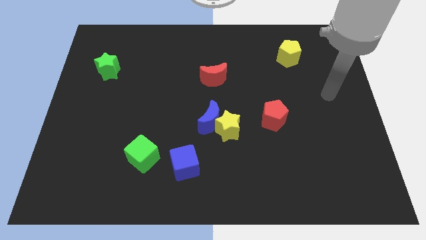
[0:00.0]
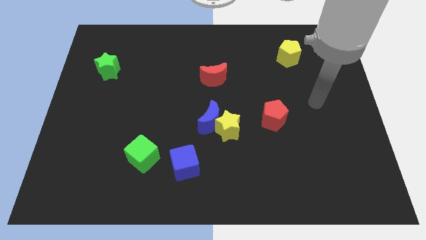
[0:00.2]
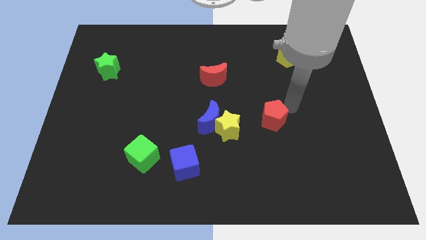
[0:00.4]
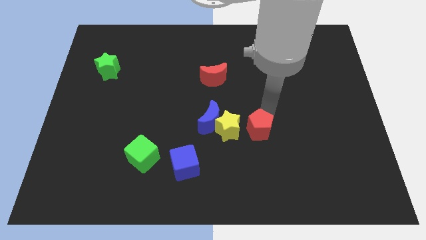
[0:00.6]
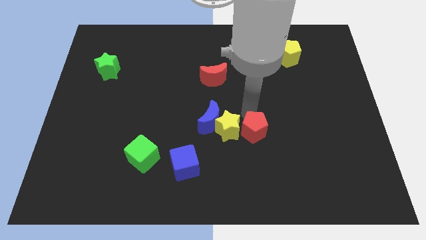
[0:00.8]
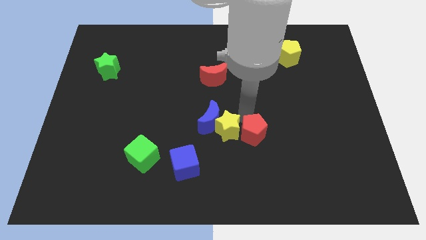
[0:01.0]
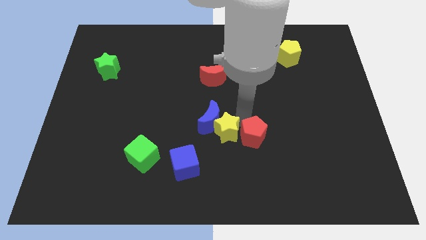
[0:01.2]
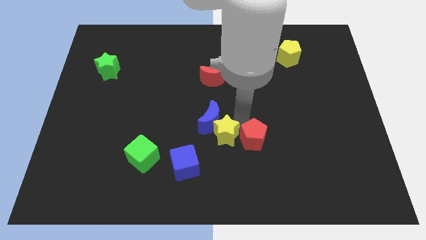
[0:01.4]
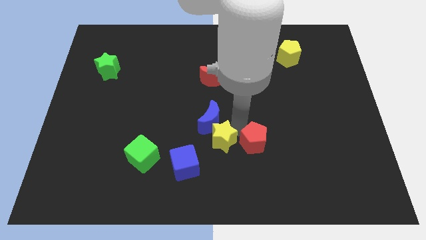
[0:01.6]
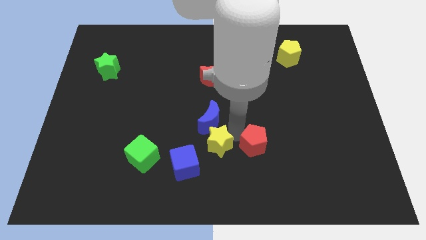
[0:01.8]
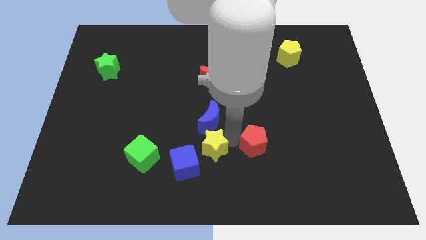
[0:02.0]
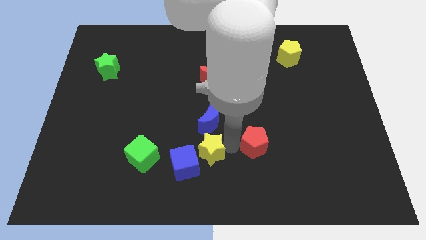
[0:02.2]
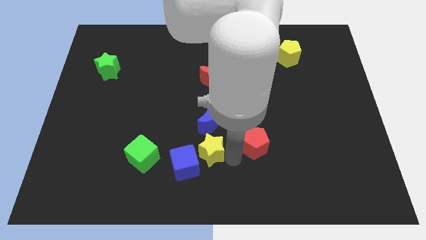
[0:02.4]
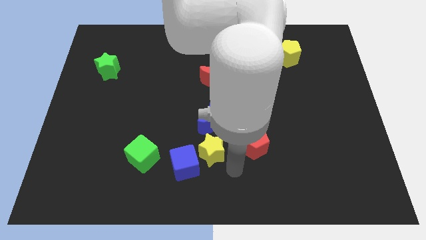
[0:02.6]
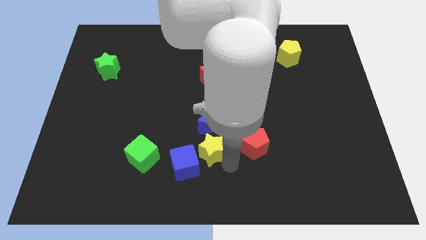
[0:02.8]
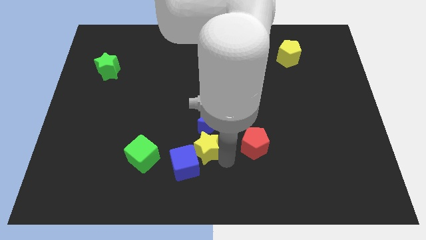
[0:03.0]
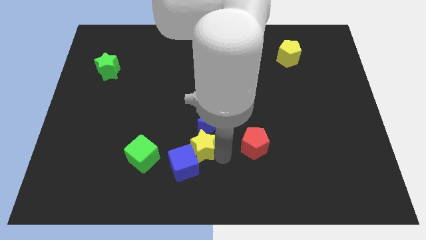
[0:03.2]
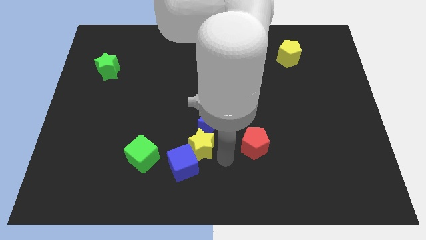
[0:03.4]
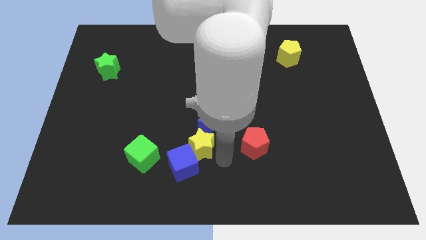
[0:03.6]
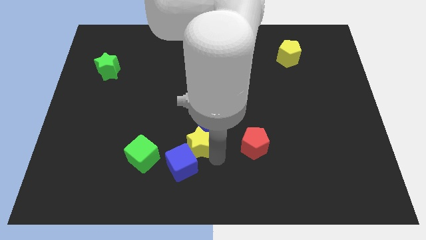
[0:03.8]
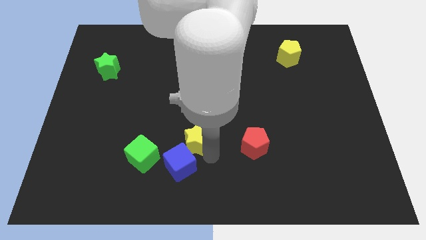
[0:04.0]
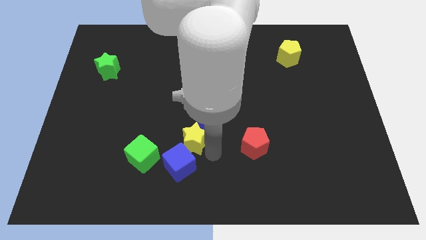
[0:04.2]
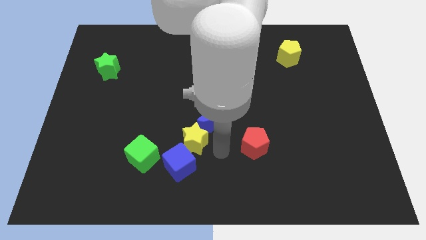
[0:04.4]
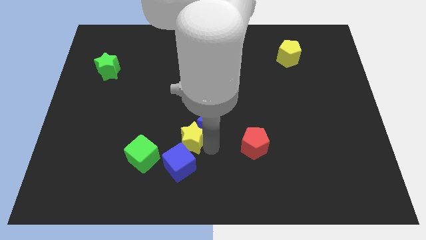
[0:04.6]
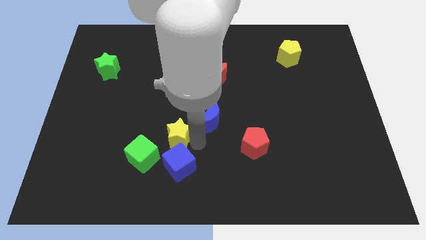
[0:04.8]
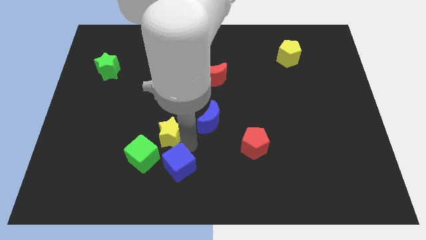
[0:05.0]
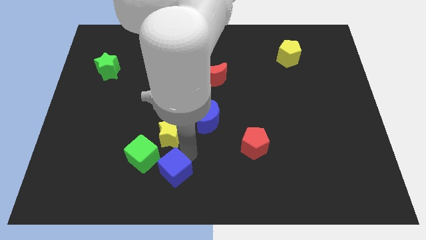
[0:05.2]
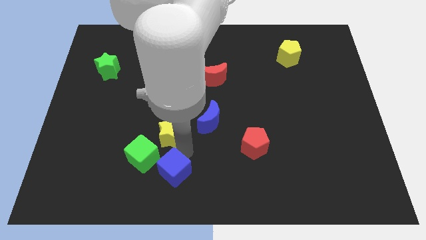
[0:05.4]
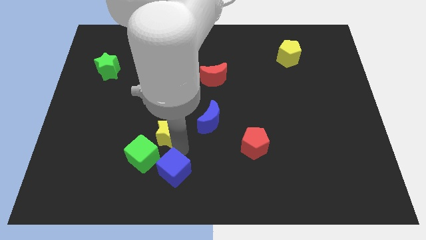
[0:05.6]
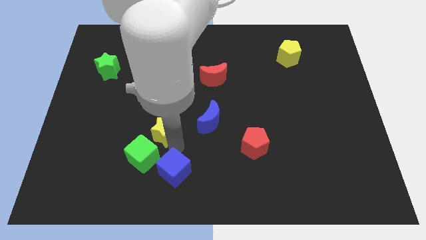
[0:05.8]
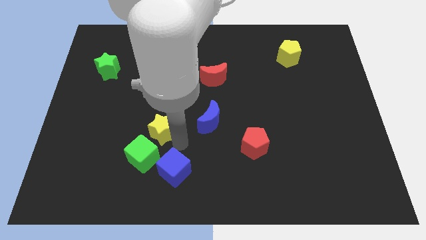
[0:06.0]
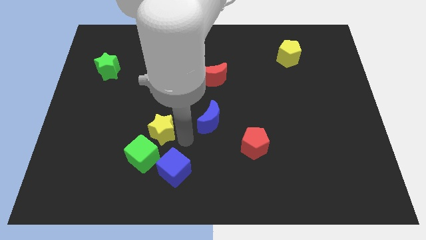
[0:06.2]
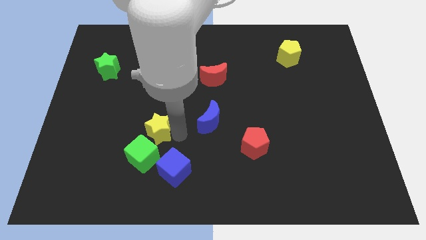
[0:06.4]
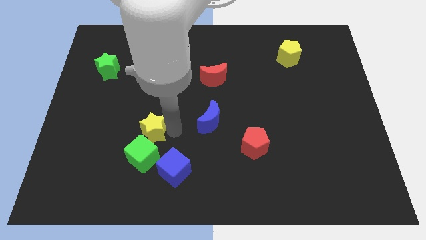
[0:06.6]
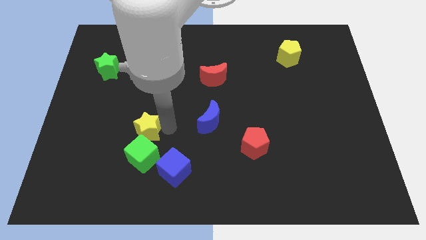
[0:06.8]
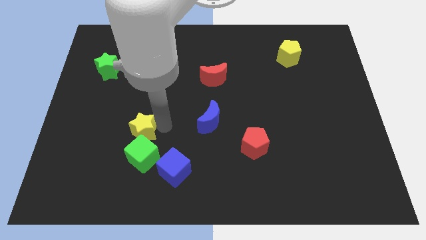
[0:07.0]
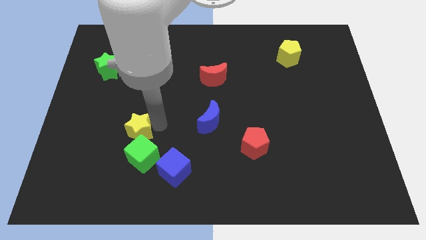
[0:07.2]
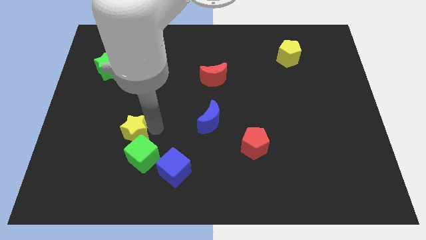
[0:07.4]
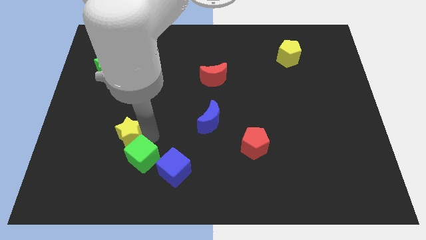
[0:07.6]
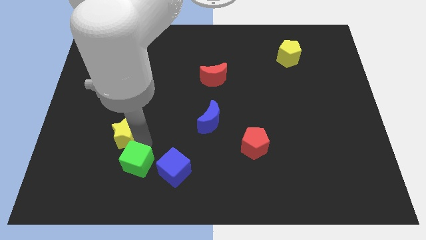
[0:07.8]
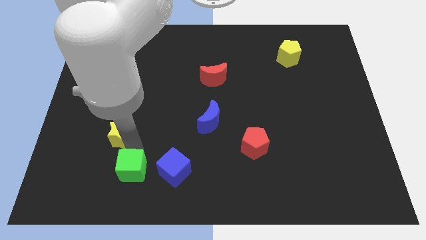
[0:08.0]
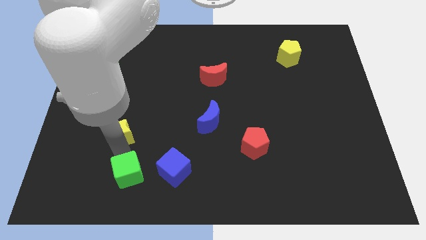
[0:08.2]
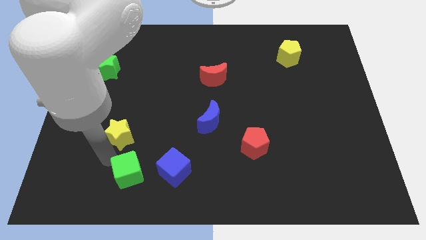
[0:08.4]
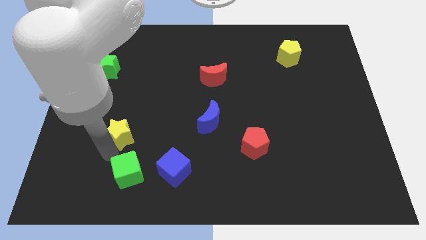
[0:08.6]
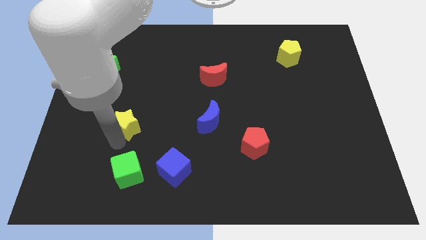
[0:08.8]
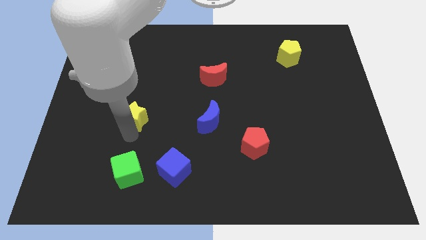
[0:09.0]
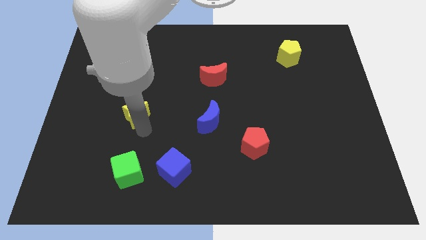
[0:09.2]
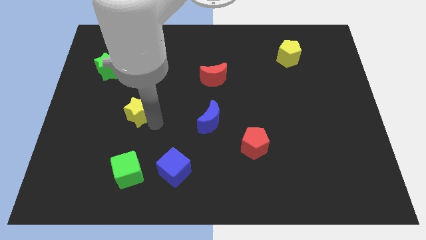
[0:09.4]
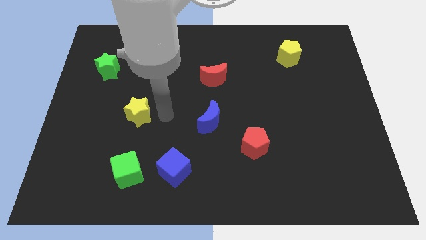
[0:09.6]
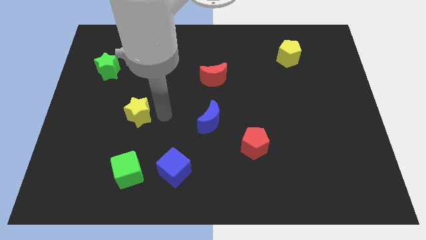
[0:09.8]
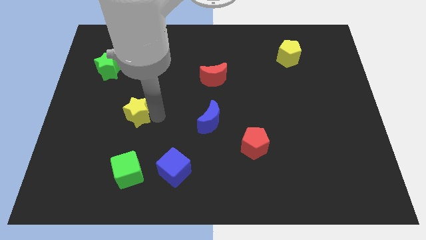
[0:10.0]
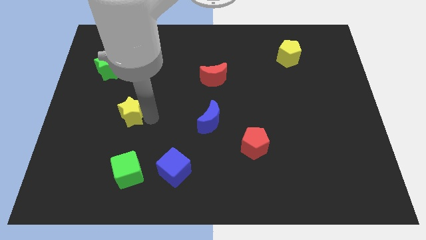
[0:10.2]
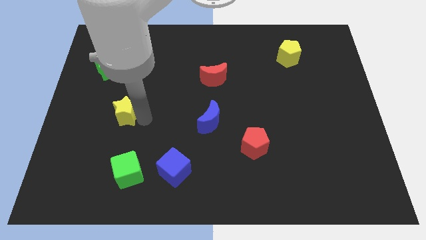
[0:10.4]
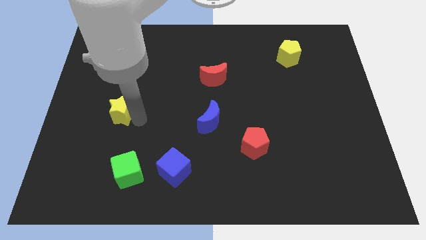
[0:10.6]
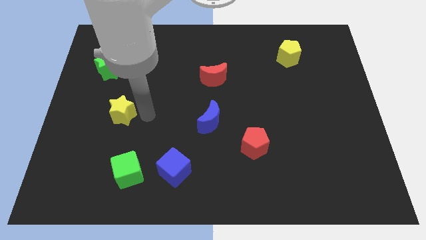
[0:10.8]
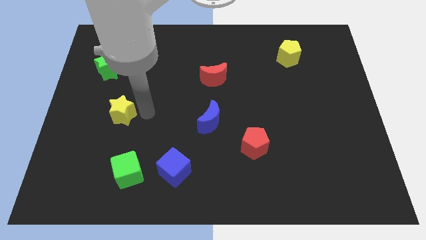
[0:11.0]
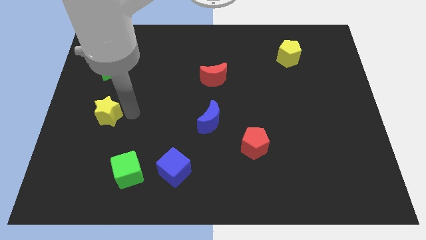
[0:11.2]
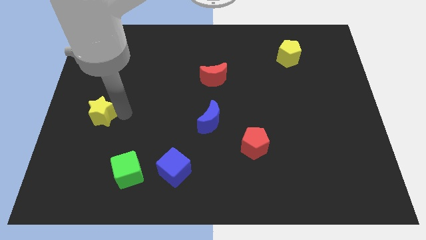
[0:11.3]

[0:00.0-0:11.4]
push the yellow star to the center left

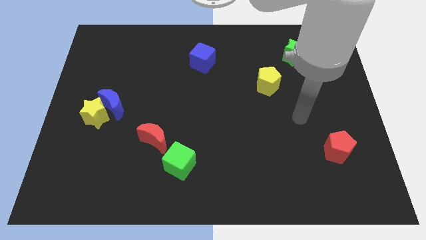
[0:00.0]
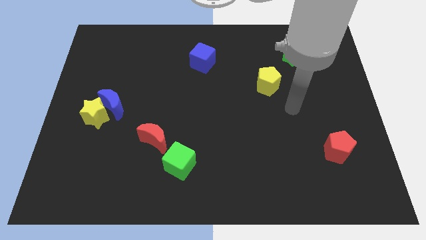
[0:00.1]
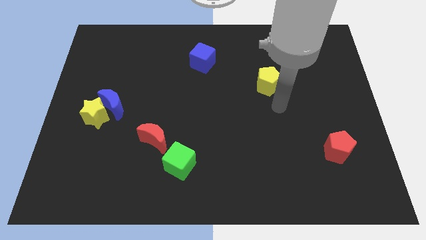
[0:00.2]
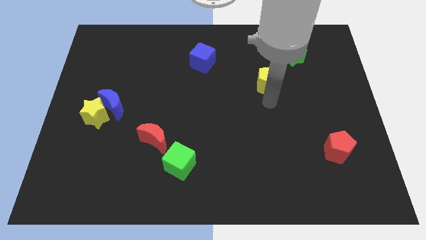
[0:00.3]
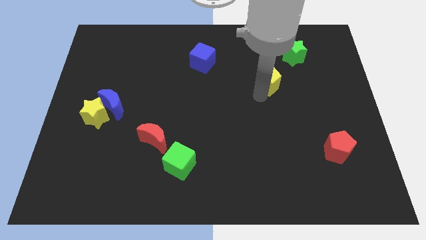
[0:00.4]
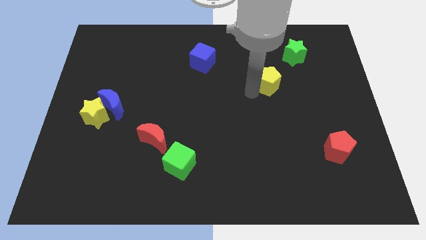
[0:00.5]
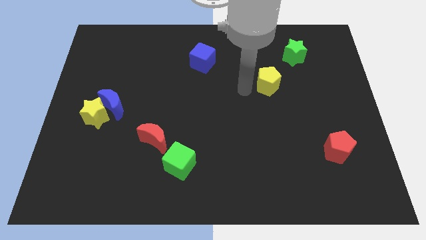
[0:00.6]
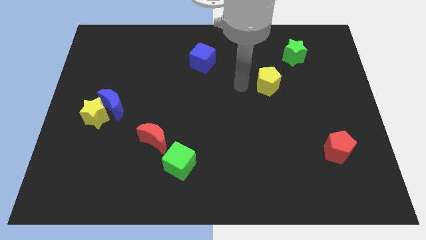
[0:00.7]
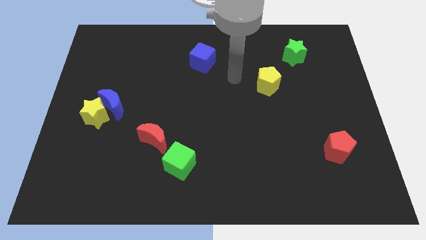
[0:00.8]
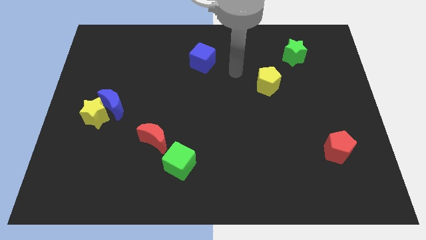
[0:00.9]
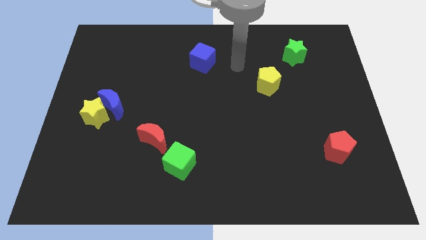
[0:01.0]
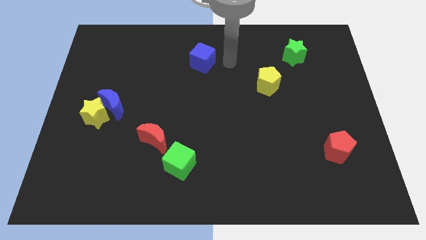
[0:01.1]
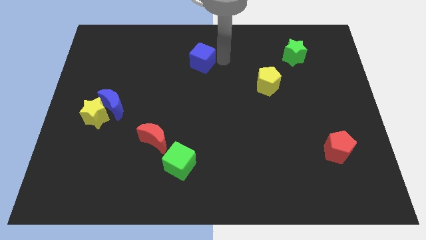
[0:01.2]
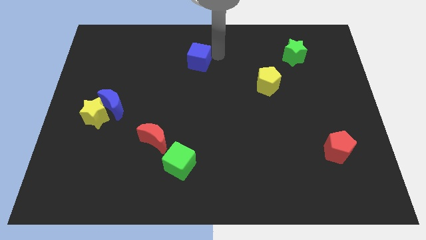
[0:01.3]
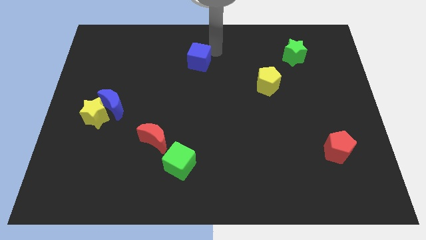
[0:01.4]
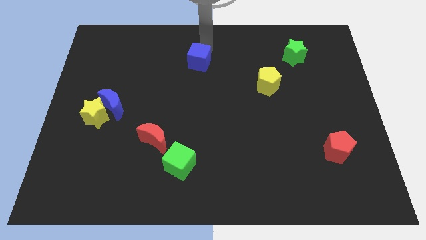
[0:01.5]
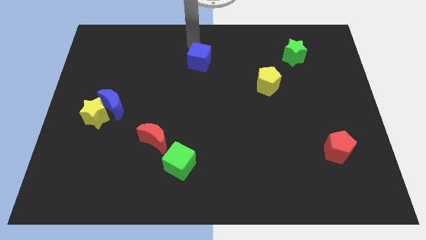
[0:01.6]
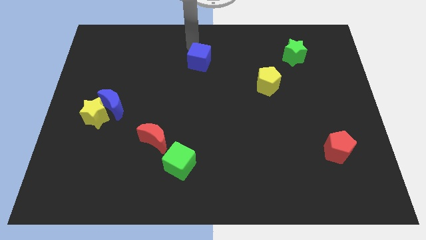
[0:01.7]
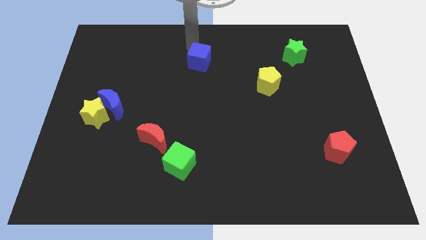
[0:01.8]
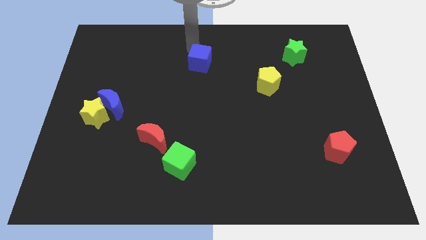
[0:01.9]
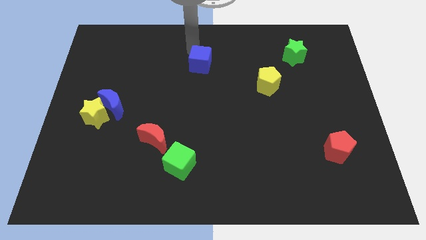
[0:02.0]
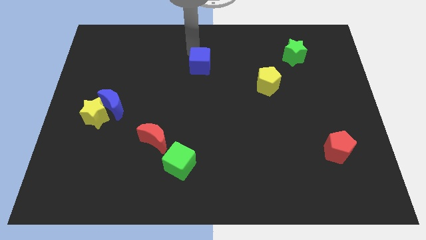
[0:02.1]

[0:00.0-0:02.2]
put the blue cube to the center

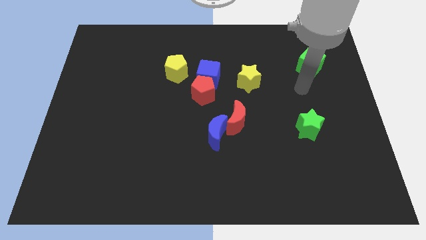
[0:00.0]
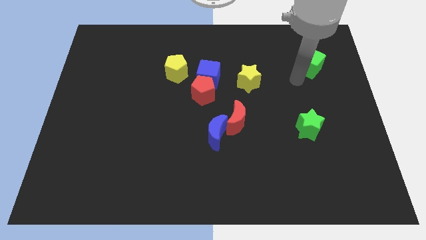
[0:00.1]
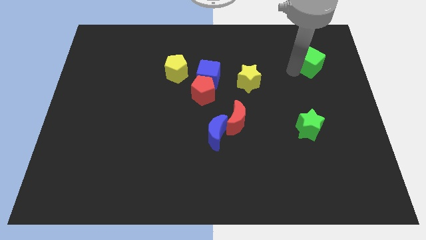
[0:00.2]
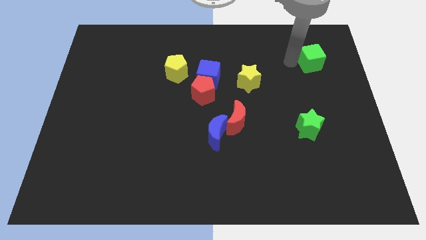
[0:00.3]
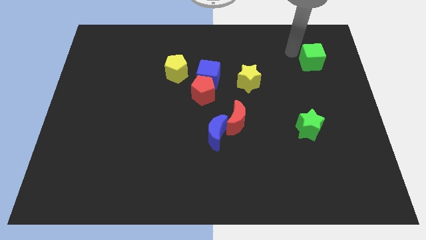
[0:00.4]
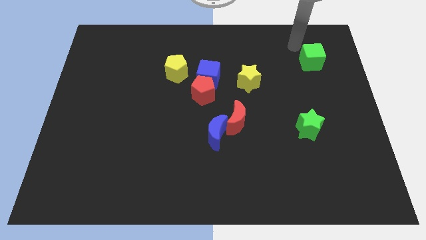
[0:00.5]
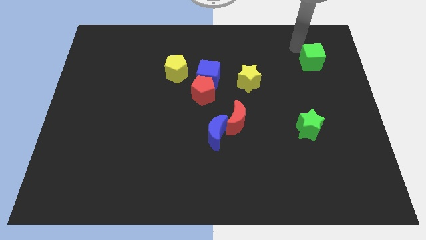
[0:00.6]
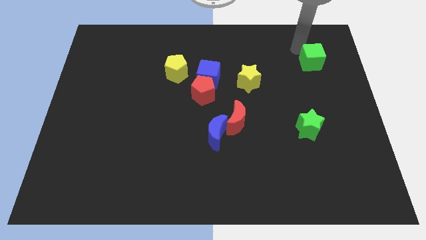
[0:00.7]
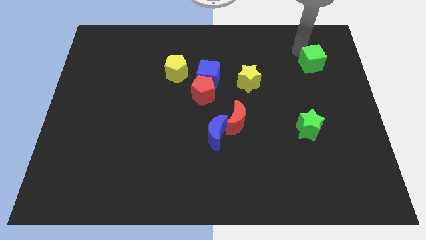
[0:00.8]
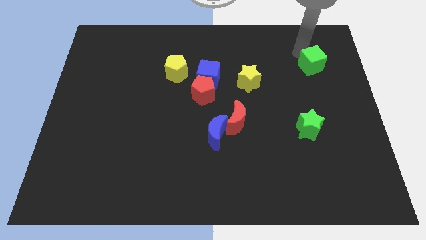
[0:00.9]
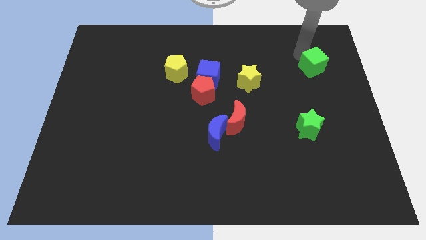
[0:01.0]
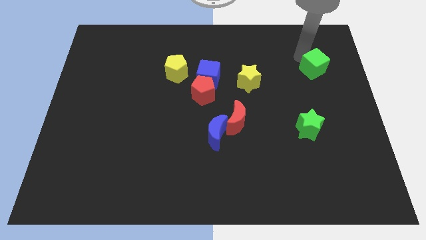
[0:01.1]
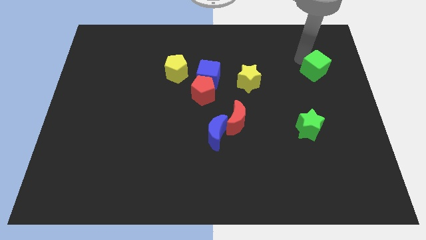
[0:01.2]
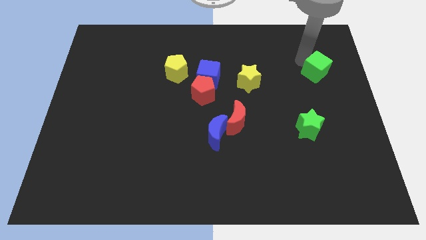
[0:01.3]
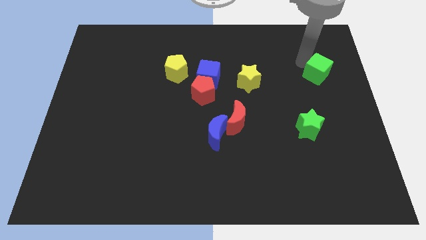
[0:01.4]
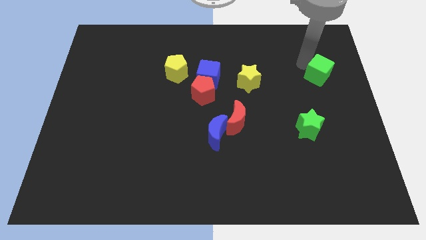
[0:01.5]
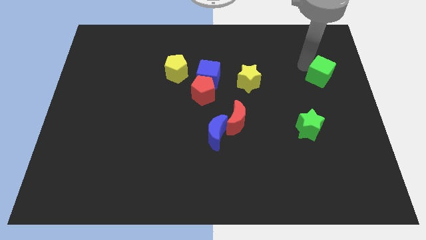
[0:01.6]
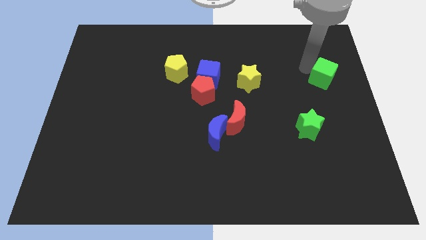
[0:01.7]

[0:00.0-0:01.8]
move the green cube to the center right
